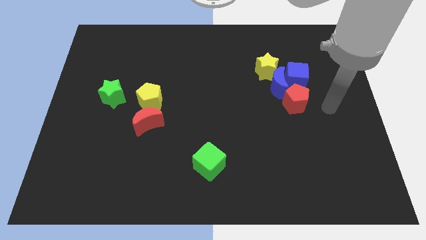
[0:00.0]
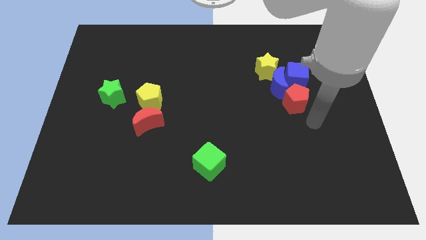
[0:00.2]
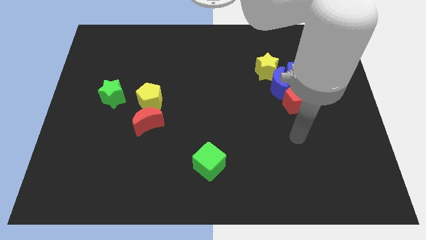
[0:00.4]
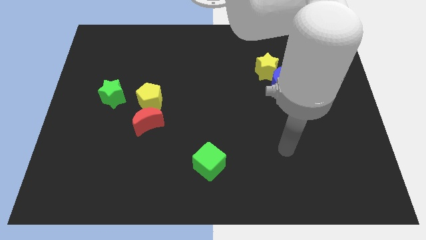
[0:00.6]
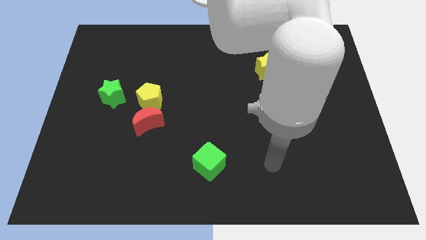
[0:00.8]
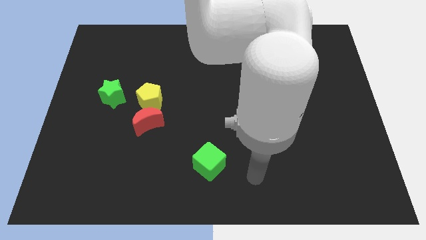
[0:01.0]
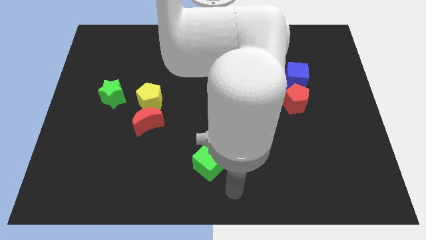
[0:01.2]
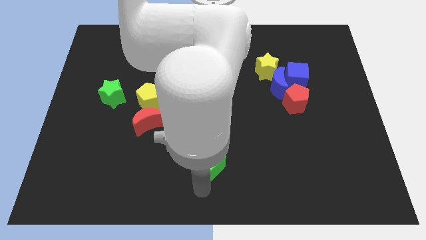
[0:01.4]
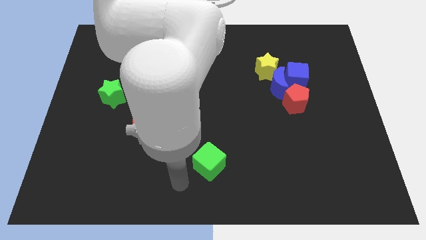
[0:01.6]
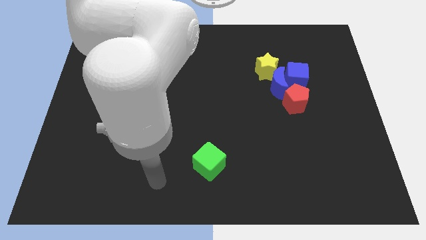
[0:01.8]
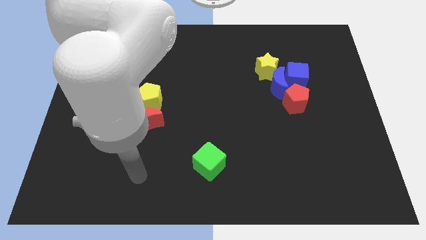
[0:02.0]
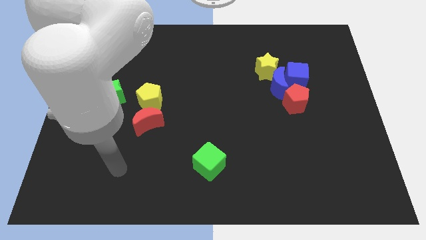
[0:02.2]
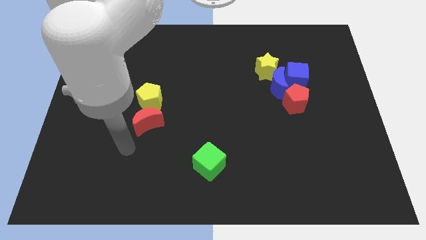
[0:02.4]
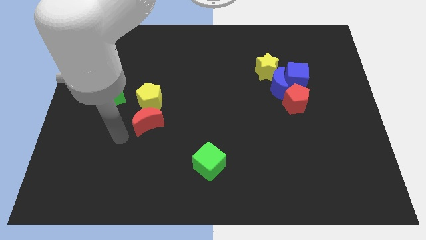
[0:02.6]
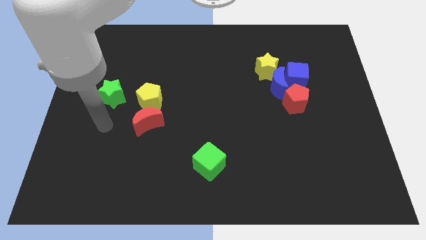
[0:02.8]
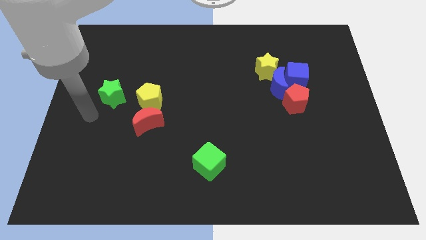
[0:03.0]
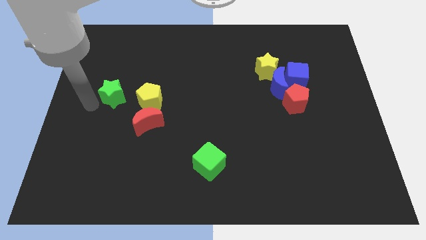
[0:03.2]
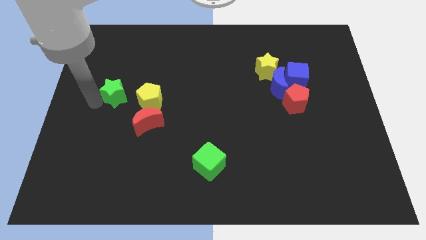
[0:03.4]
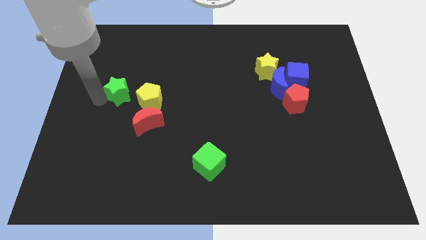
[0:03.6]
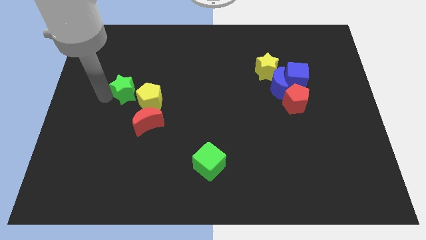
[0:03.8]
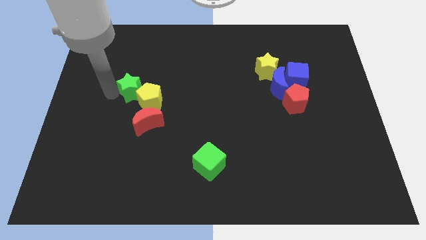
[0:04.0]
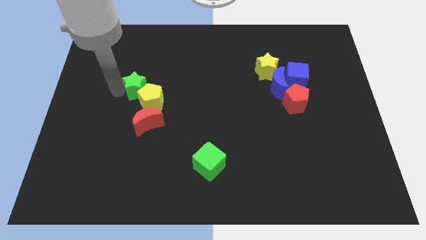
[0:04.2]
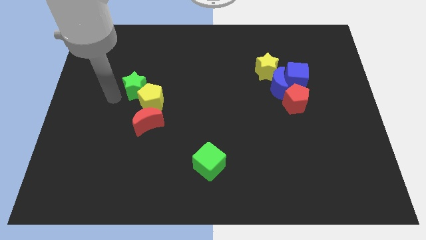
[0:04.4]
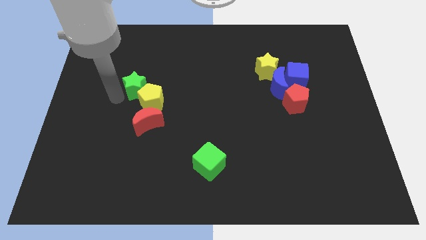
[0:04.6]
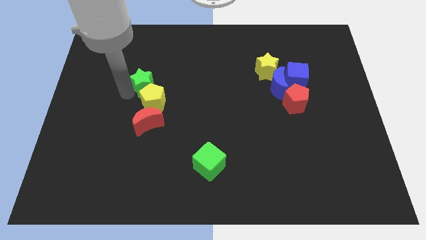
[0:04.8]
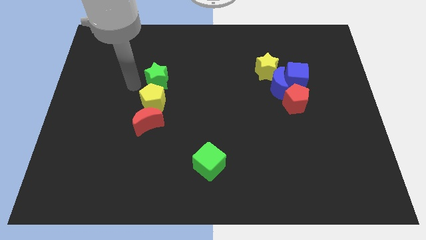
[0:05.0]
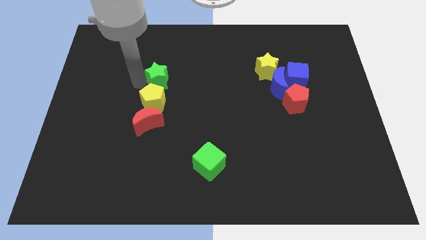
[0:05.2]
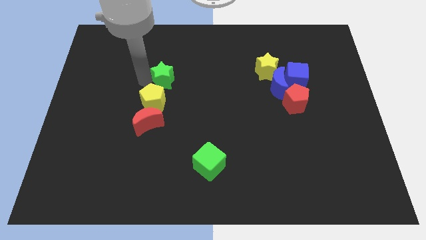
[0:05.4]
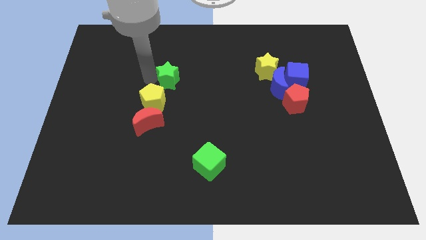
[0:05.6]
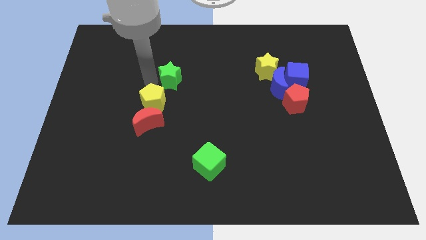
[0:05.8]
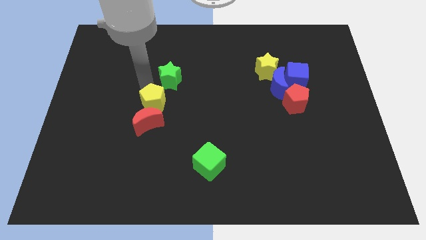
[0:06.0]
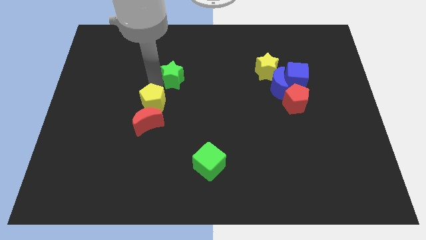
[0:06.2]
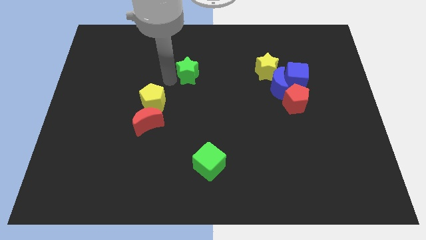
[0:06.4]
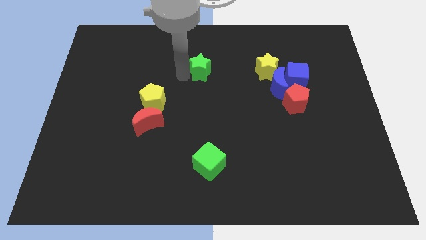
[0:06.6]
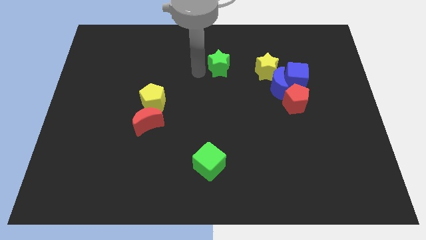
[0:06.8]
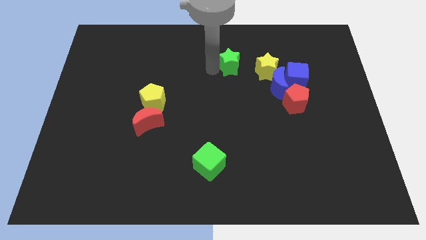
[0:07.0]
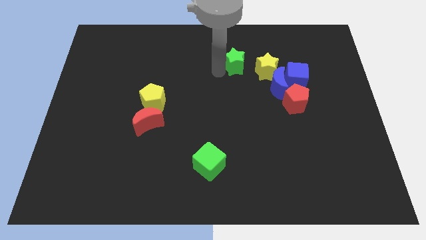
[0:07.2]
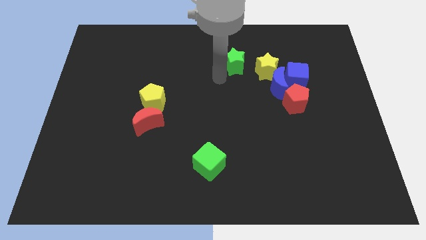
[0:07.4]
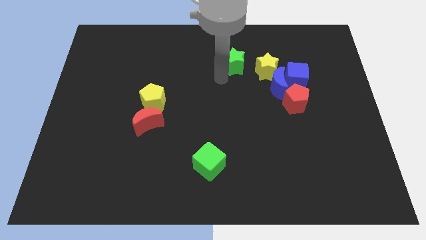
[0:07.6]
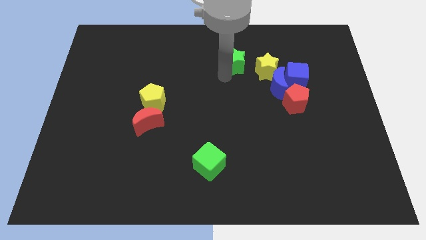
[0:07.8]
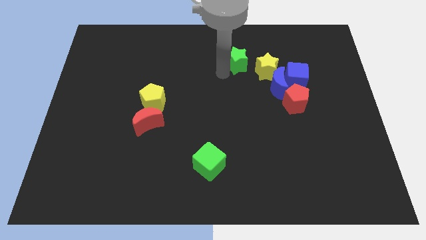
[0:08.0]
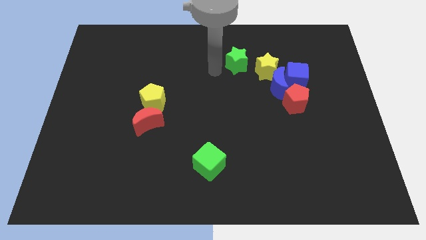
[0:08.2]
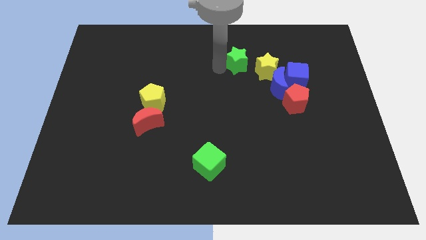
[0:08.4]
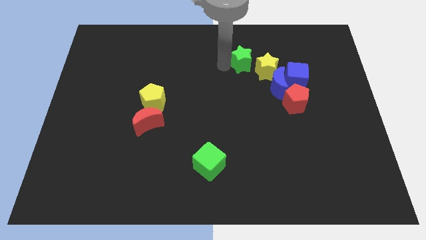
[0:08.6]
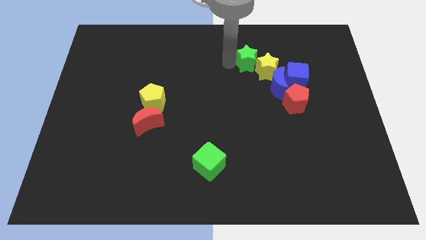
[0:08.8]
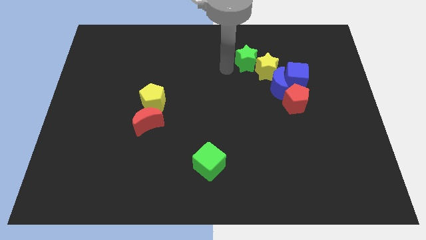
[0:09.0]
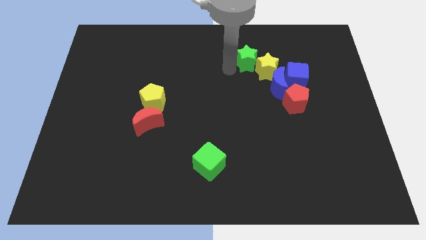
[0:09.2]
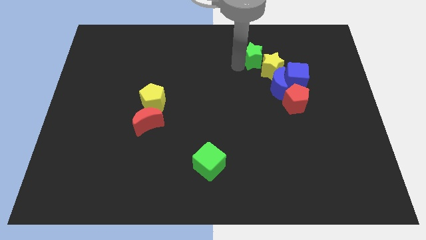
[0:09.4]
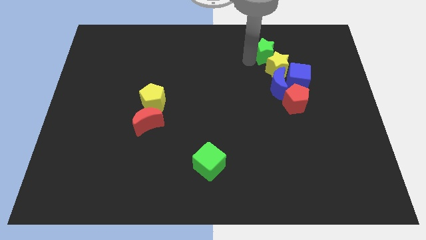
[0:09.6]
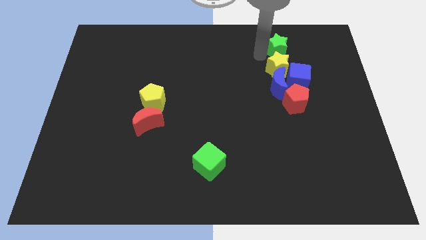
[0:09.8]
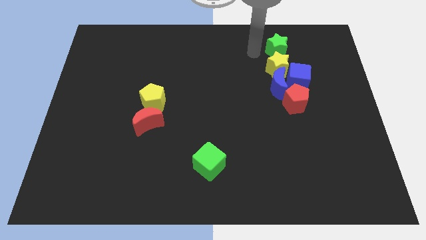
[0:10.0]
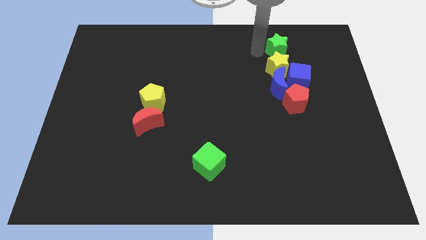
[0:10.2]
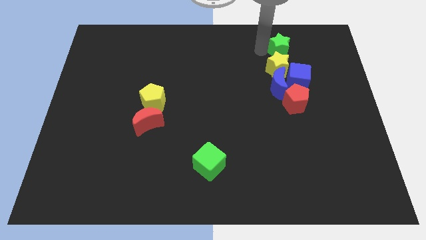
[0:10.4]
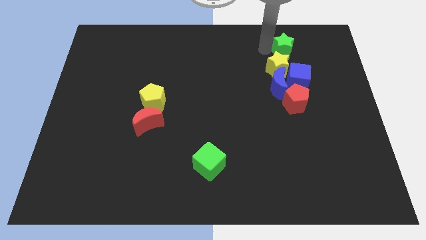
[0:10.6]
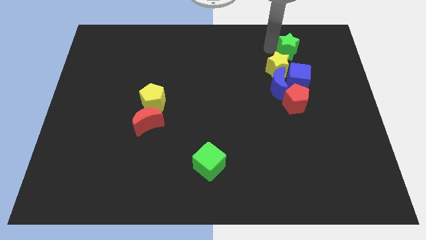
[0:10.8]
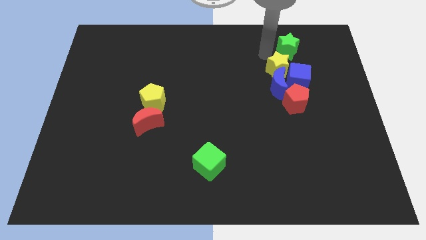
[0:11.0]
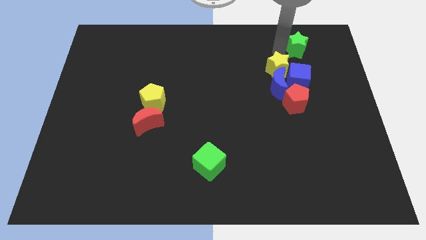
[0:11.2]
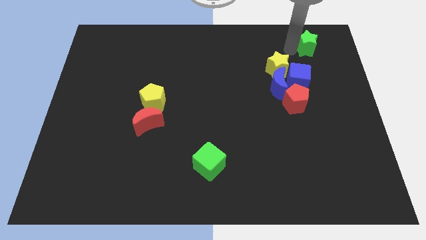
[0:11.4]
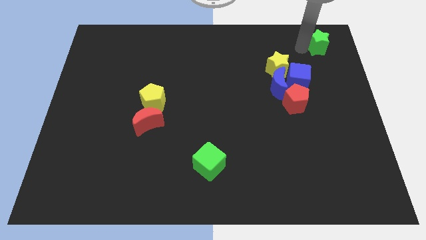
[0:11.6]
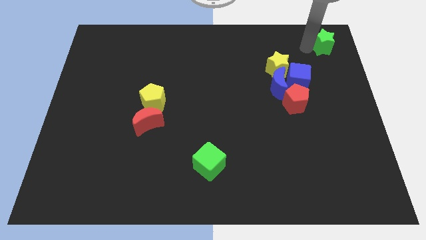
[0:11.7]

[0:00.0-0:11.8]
push the green star to the top right corner
